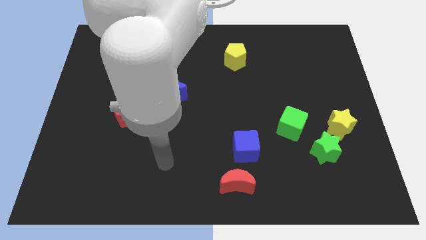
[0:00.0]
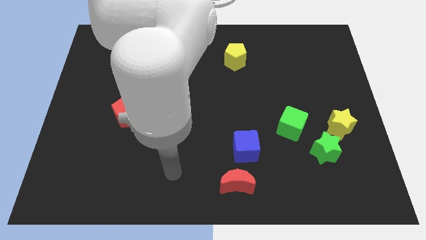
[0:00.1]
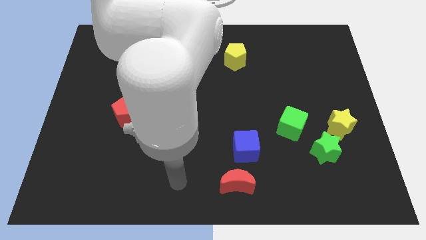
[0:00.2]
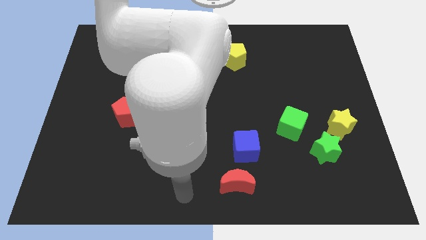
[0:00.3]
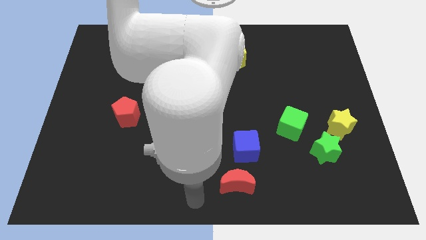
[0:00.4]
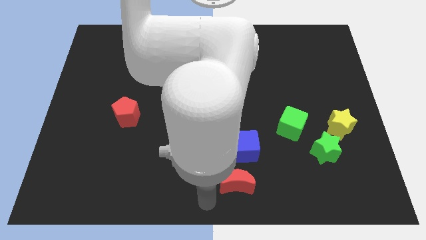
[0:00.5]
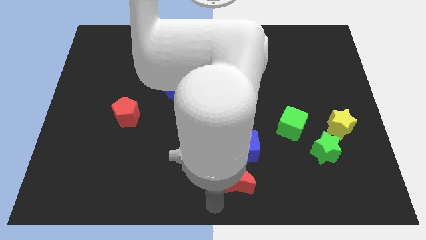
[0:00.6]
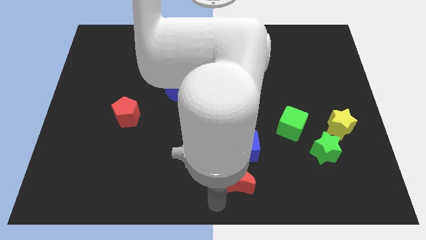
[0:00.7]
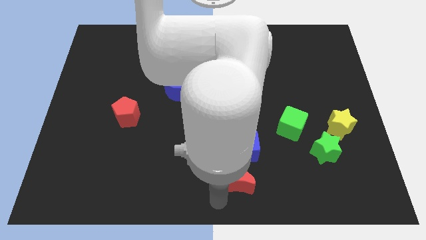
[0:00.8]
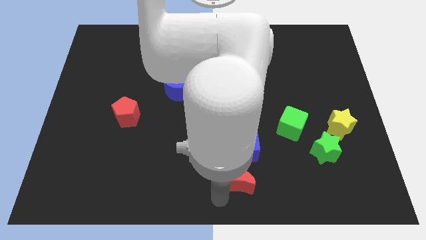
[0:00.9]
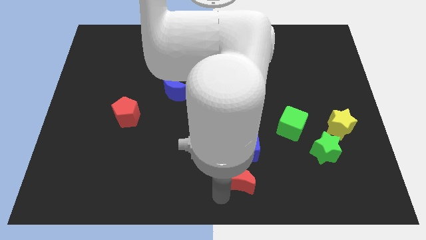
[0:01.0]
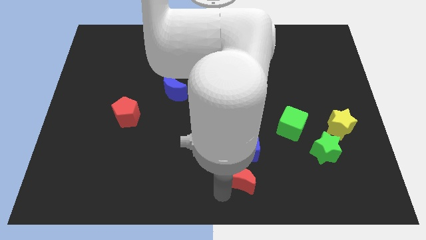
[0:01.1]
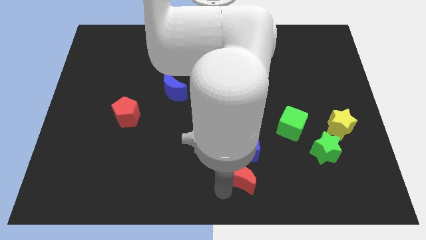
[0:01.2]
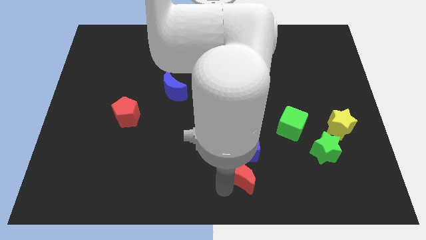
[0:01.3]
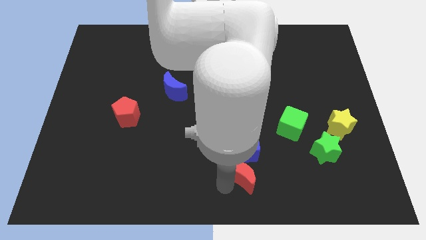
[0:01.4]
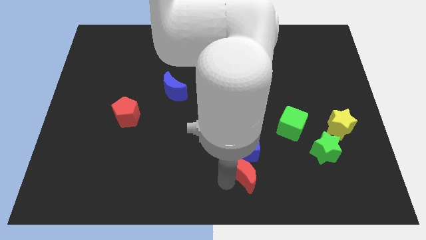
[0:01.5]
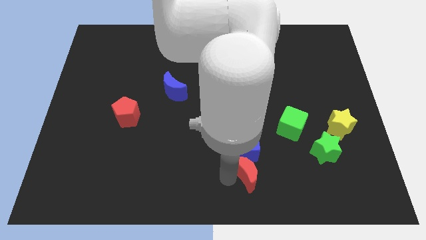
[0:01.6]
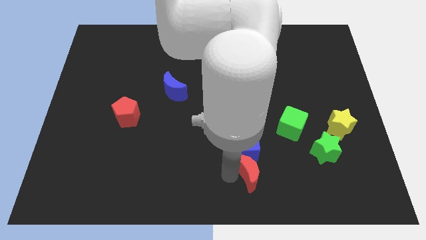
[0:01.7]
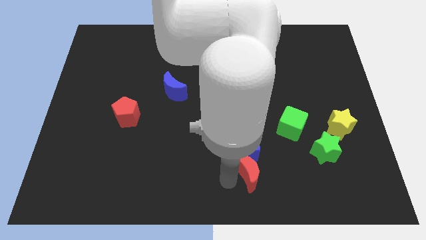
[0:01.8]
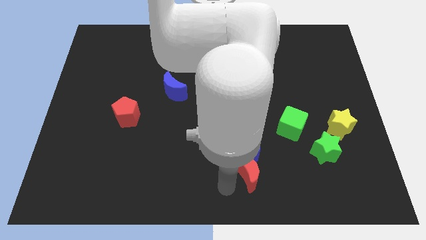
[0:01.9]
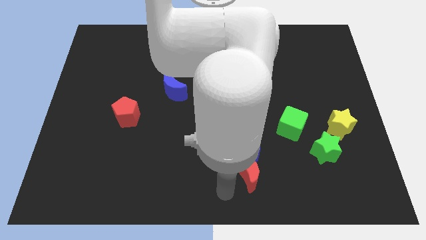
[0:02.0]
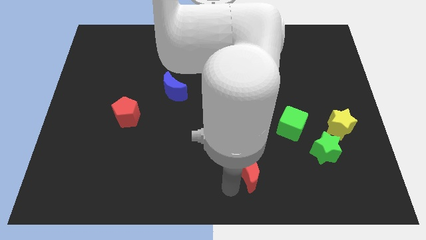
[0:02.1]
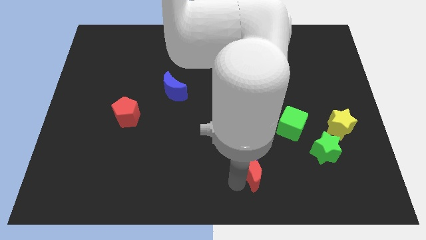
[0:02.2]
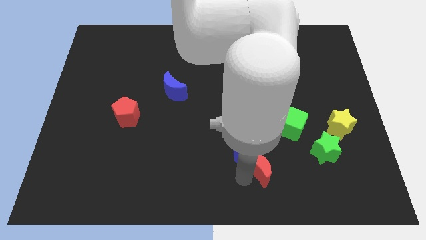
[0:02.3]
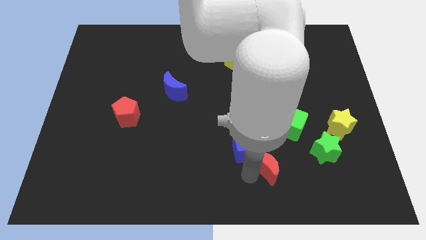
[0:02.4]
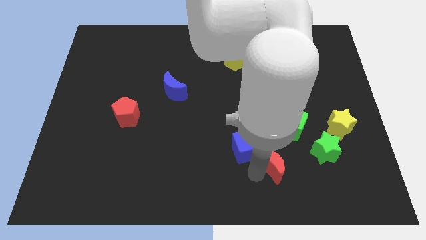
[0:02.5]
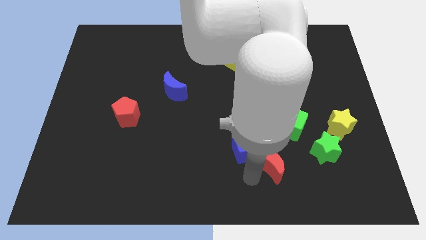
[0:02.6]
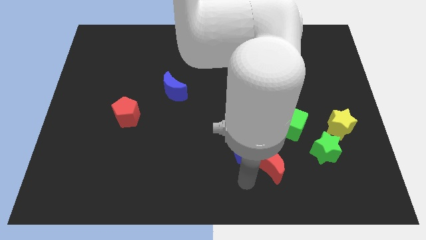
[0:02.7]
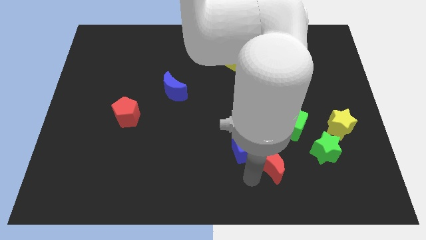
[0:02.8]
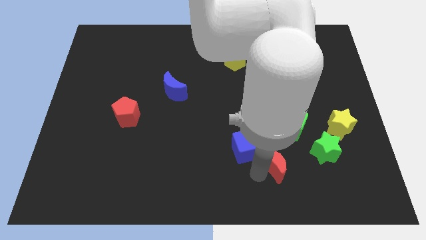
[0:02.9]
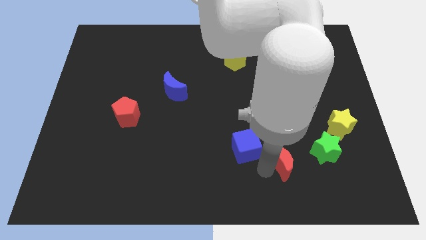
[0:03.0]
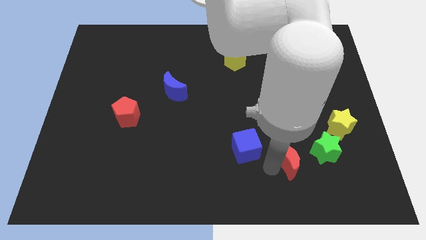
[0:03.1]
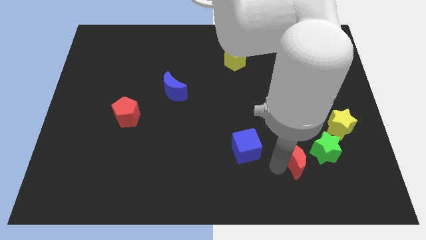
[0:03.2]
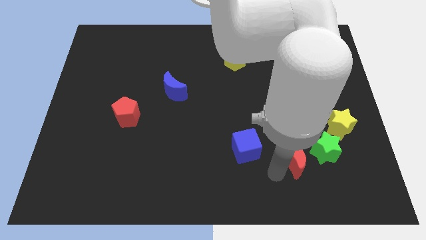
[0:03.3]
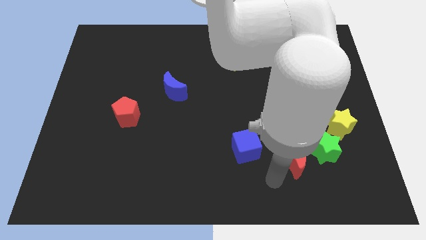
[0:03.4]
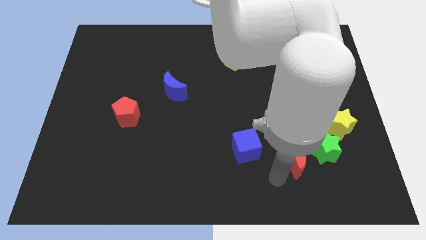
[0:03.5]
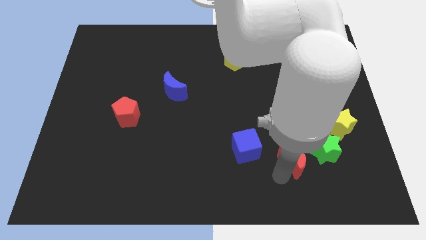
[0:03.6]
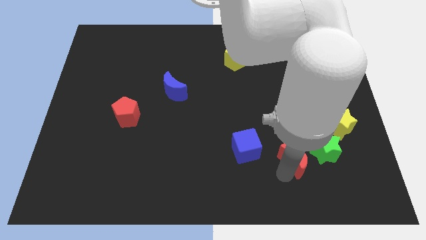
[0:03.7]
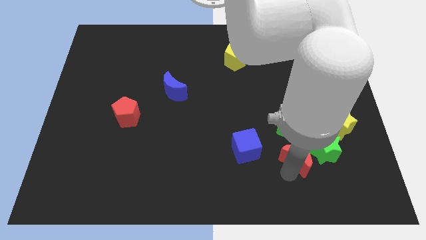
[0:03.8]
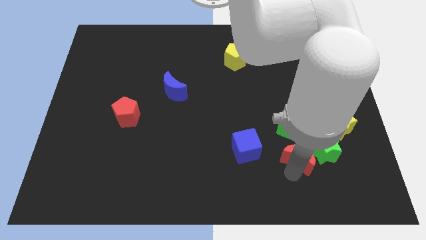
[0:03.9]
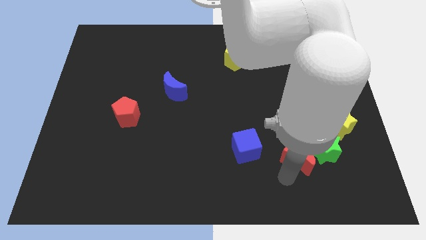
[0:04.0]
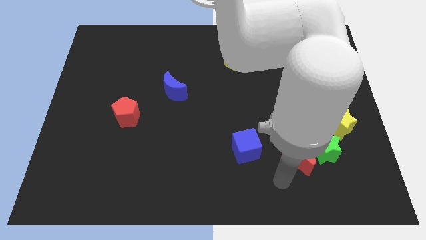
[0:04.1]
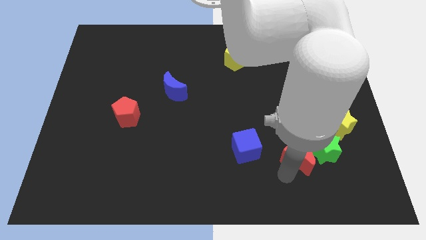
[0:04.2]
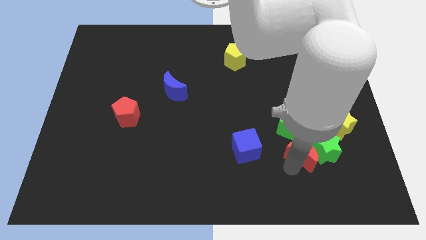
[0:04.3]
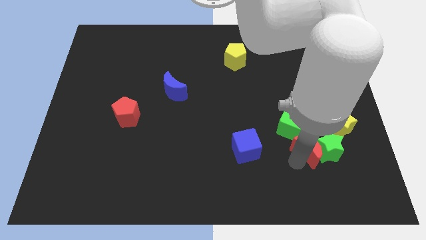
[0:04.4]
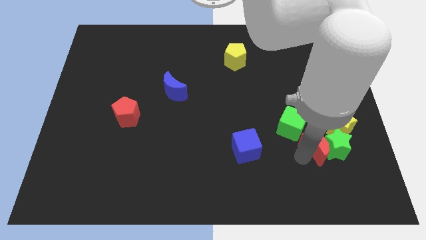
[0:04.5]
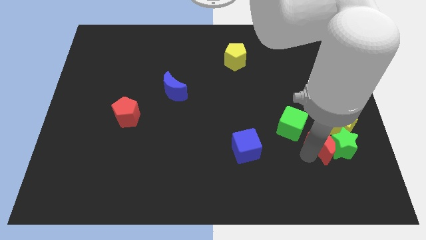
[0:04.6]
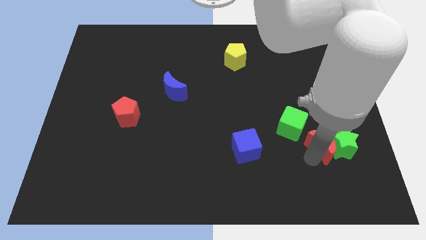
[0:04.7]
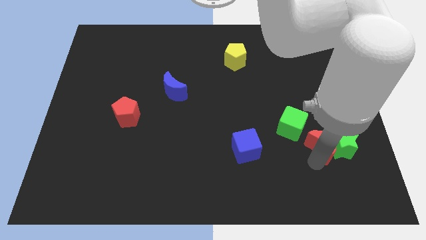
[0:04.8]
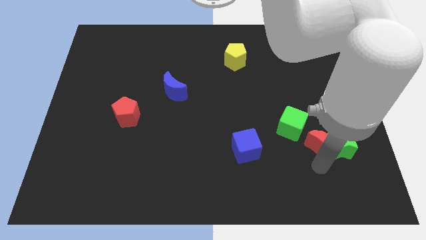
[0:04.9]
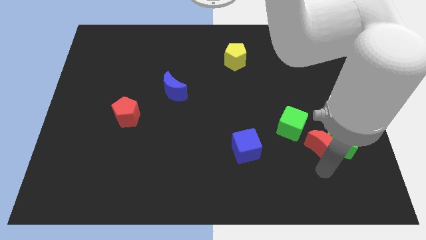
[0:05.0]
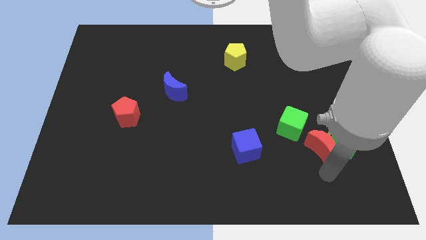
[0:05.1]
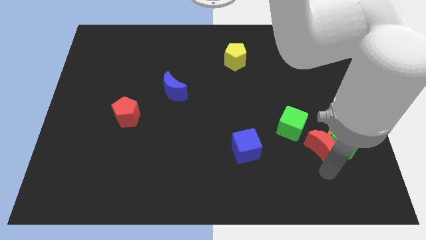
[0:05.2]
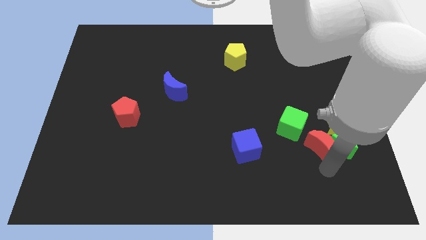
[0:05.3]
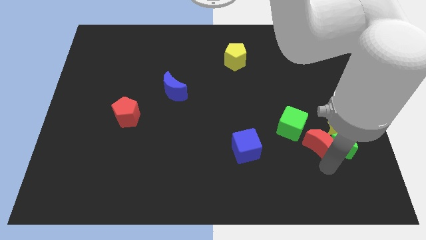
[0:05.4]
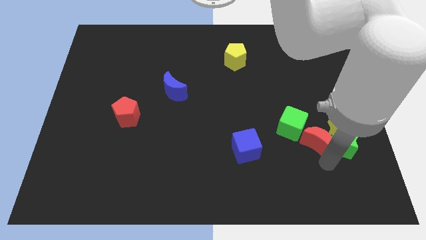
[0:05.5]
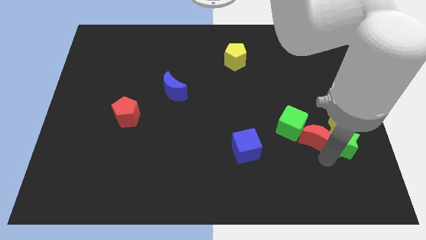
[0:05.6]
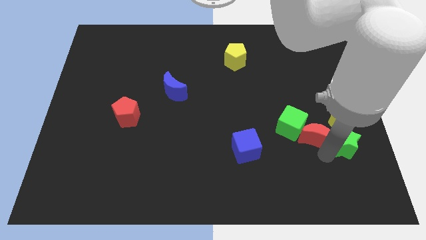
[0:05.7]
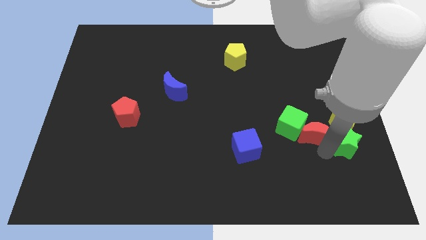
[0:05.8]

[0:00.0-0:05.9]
move the red moon upwards and to the right diagonally

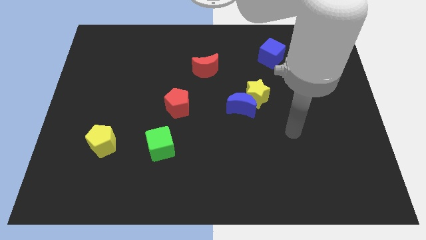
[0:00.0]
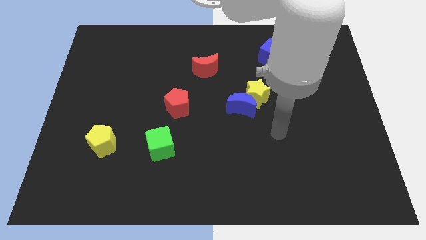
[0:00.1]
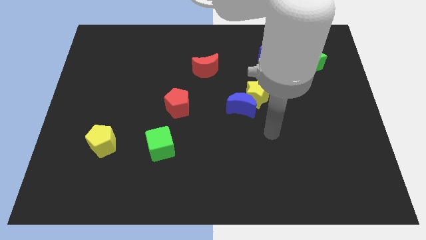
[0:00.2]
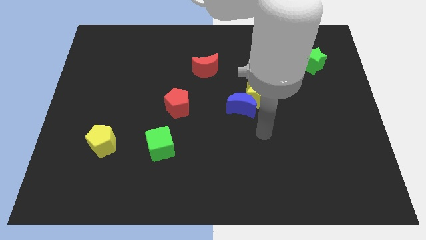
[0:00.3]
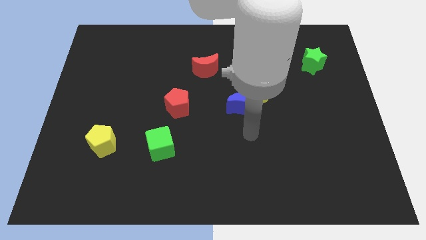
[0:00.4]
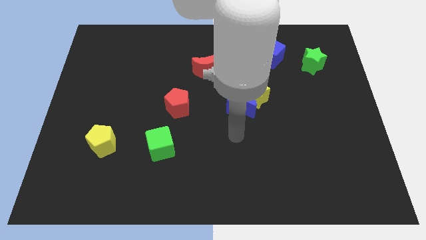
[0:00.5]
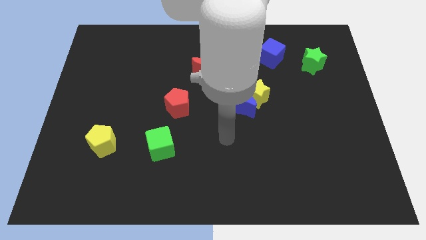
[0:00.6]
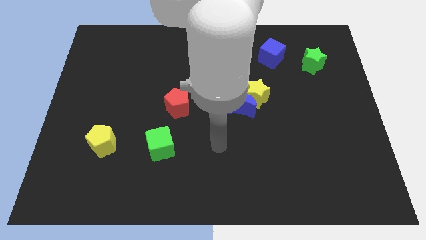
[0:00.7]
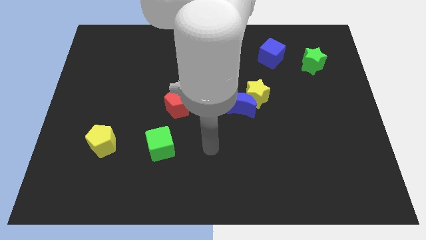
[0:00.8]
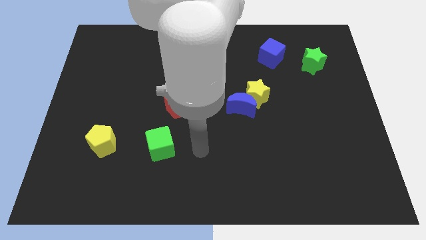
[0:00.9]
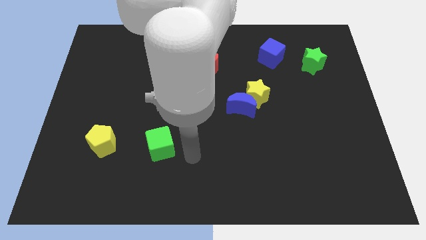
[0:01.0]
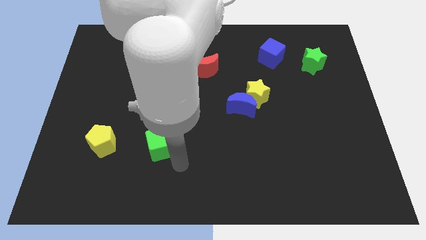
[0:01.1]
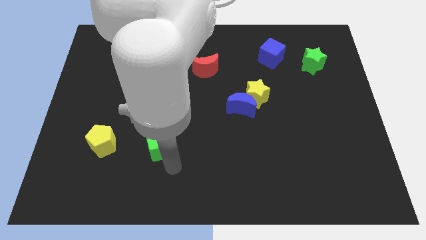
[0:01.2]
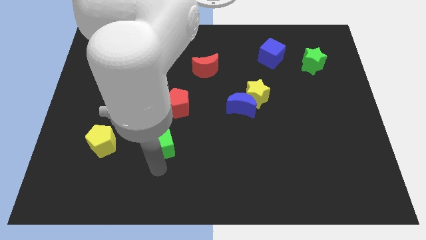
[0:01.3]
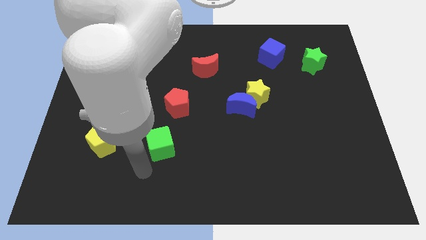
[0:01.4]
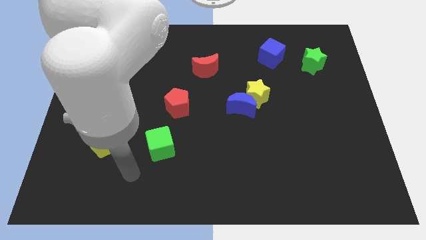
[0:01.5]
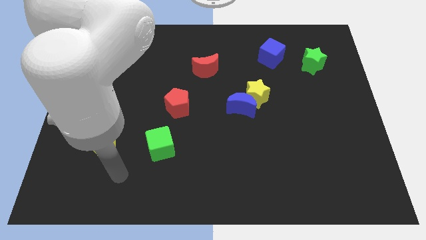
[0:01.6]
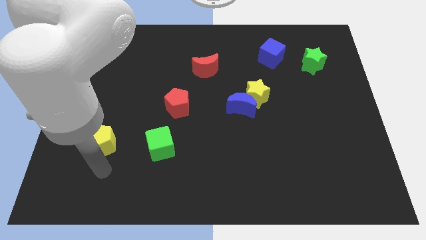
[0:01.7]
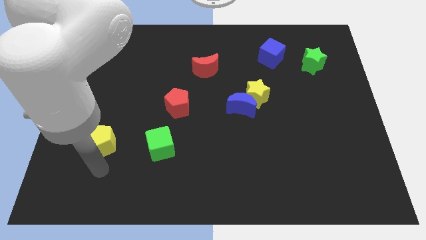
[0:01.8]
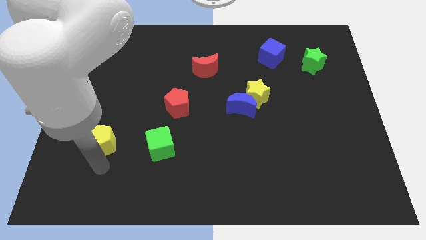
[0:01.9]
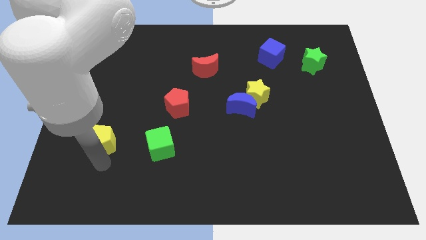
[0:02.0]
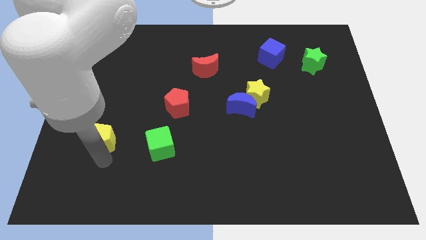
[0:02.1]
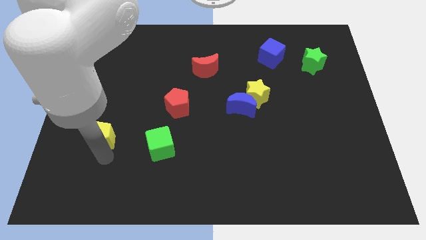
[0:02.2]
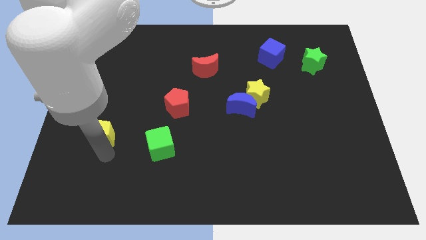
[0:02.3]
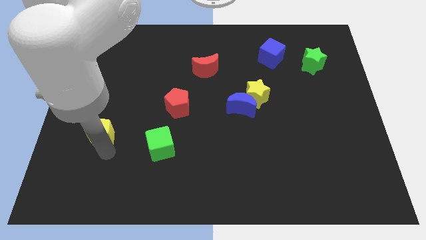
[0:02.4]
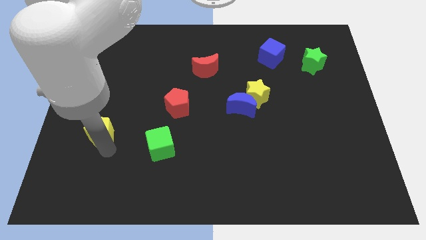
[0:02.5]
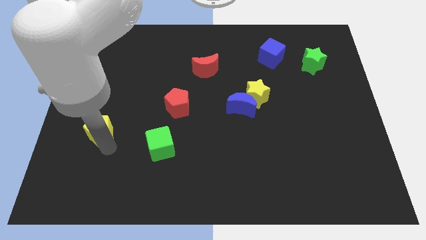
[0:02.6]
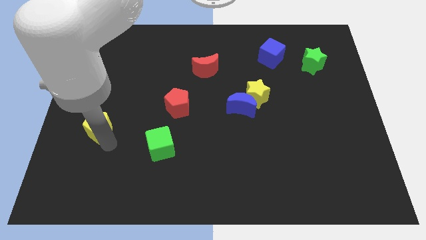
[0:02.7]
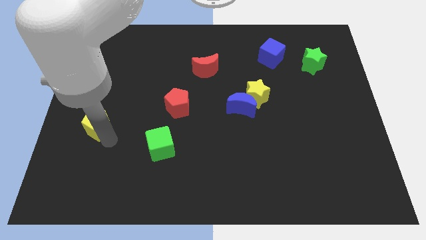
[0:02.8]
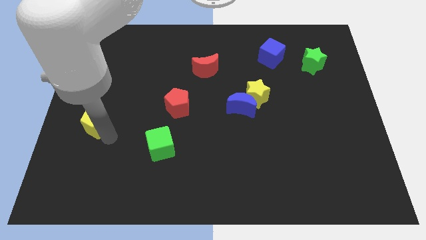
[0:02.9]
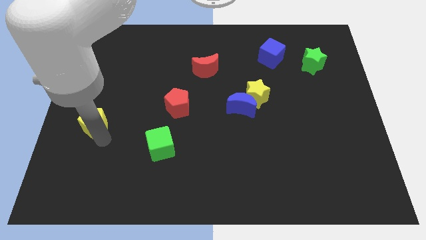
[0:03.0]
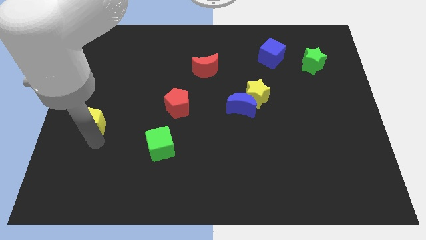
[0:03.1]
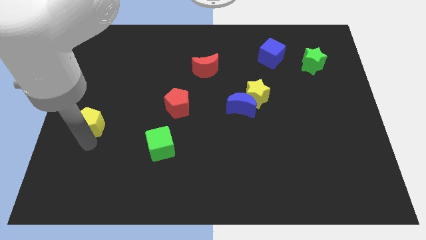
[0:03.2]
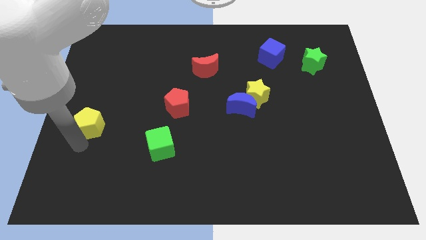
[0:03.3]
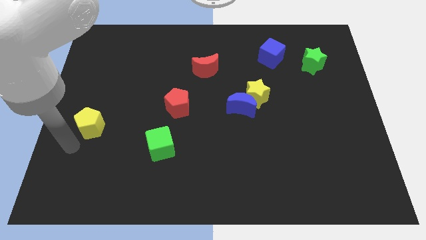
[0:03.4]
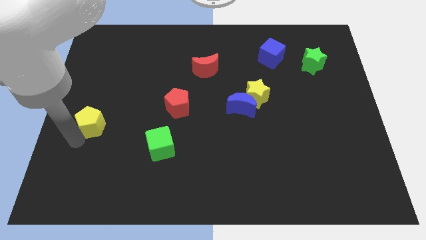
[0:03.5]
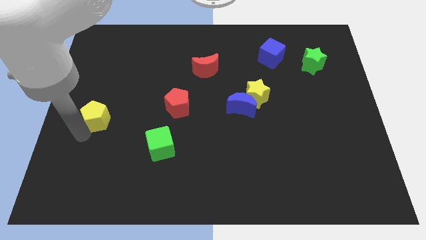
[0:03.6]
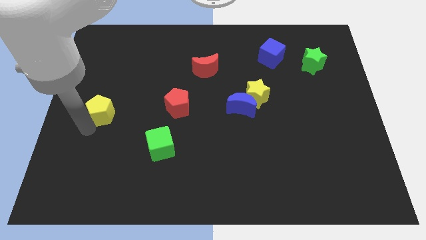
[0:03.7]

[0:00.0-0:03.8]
push the yellow pentagon slightly up
